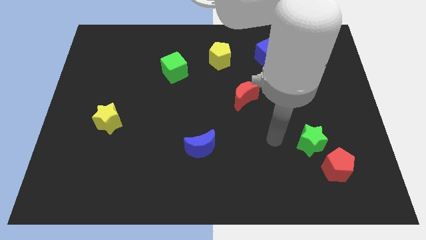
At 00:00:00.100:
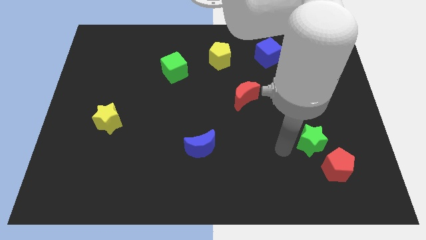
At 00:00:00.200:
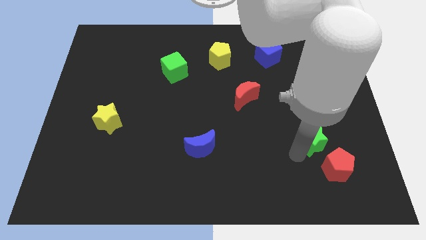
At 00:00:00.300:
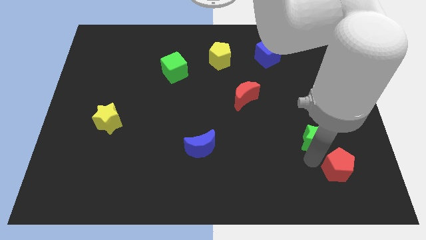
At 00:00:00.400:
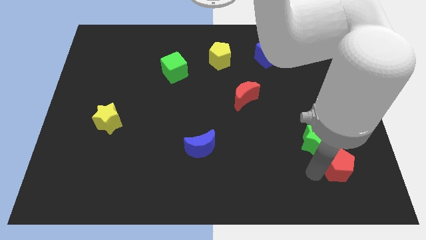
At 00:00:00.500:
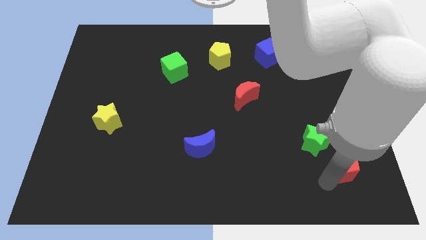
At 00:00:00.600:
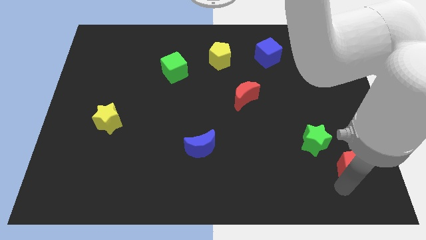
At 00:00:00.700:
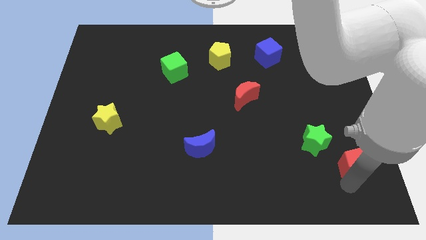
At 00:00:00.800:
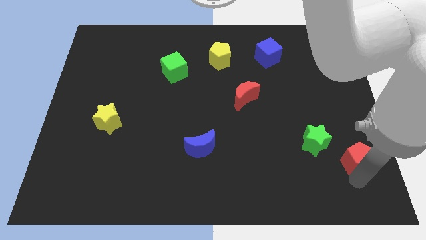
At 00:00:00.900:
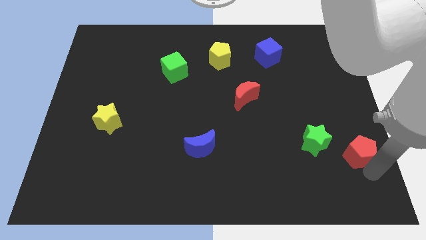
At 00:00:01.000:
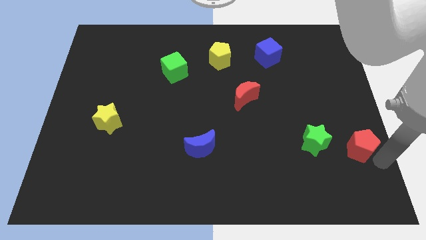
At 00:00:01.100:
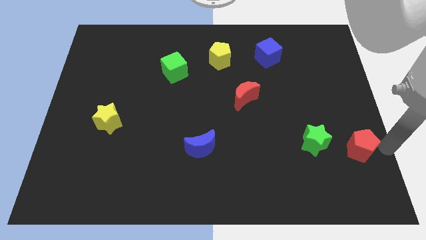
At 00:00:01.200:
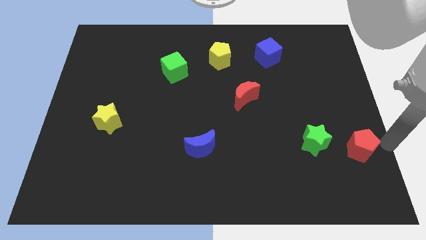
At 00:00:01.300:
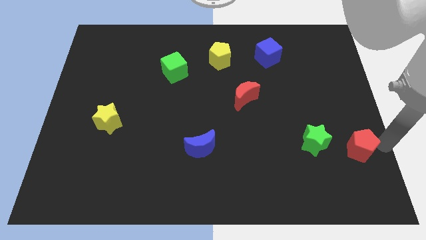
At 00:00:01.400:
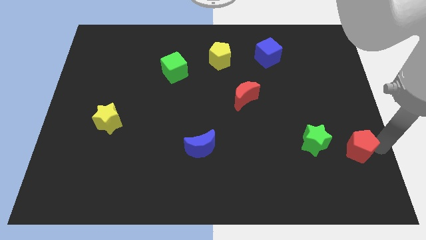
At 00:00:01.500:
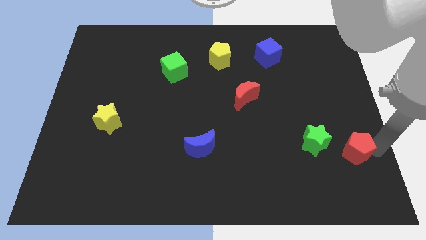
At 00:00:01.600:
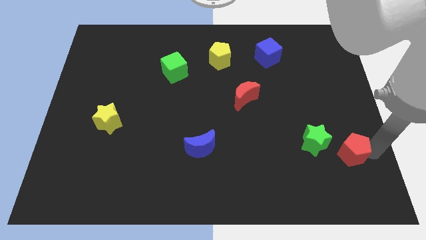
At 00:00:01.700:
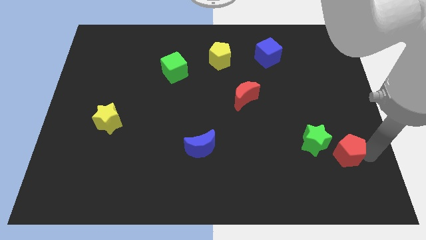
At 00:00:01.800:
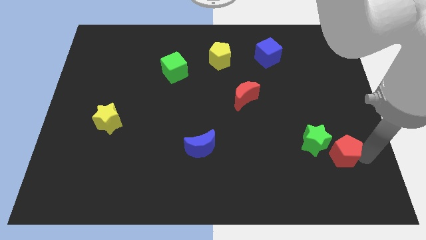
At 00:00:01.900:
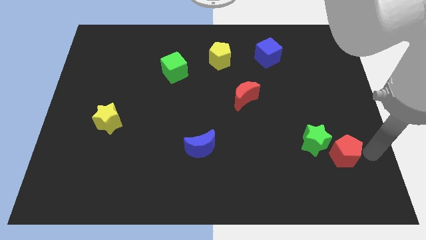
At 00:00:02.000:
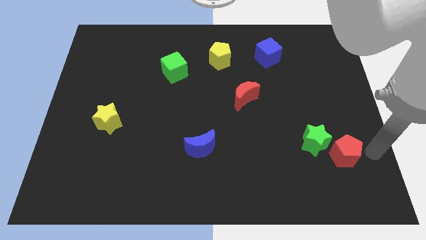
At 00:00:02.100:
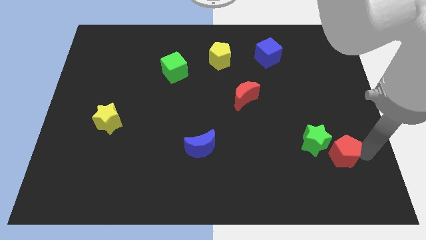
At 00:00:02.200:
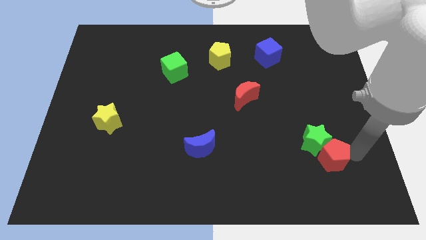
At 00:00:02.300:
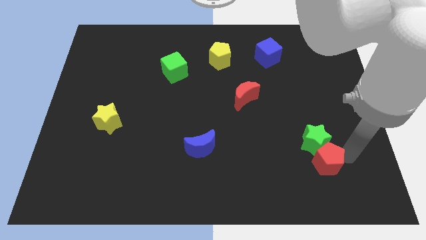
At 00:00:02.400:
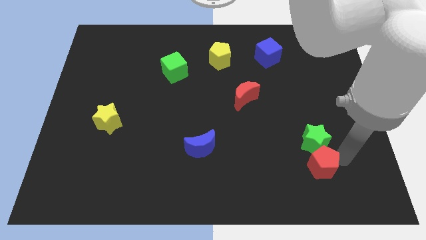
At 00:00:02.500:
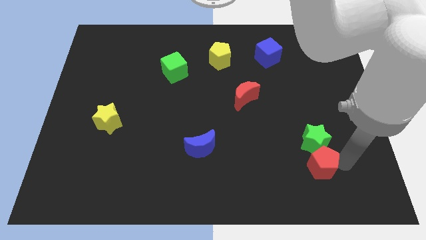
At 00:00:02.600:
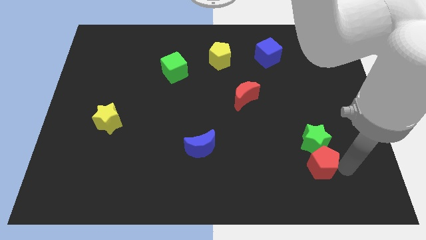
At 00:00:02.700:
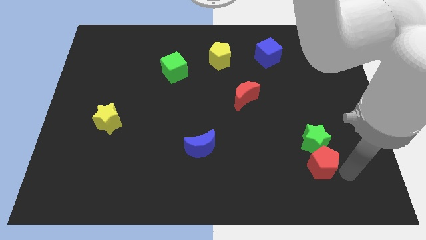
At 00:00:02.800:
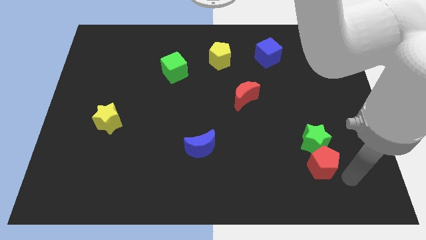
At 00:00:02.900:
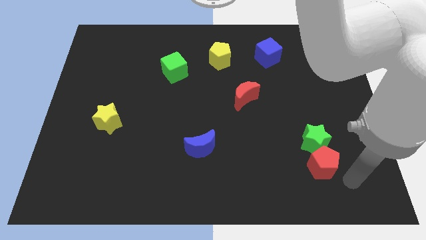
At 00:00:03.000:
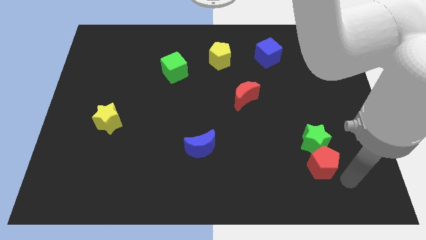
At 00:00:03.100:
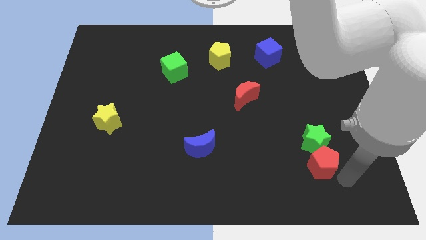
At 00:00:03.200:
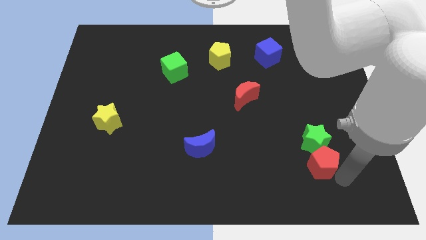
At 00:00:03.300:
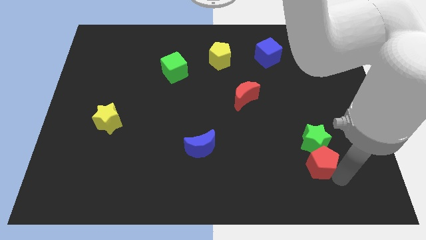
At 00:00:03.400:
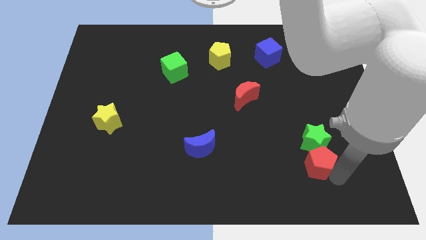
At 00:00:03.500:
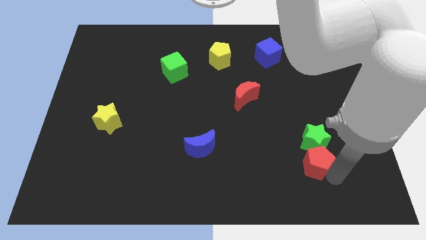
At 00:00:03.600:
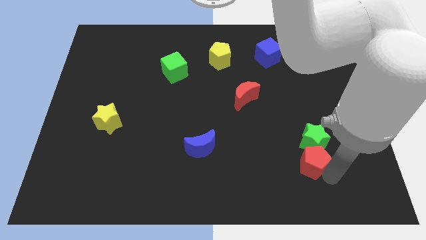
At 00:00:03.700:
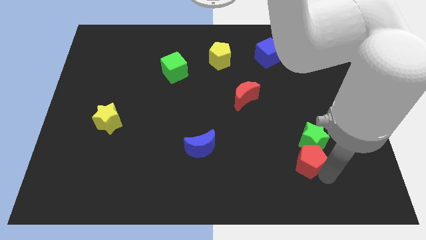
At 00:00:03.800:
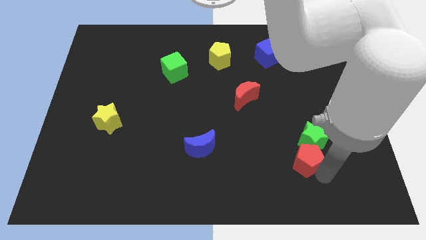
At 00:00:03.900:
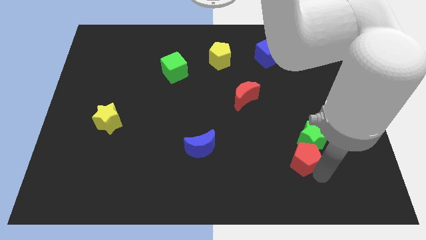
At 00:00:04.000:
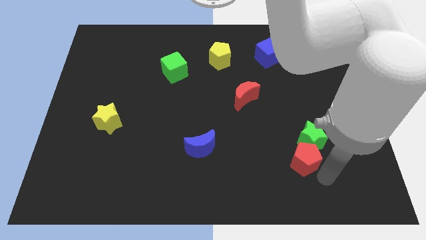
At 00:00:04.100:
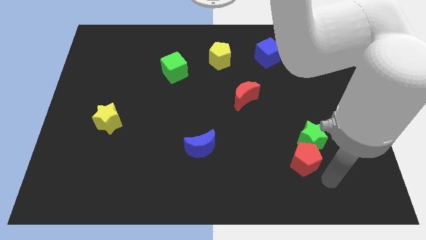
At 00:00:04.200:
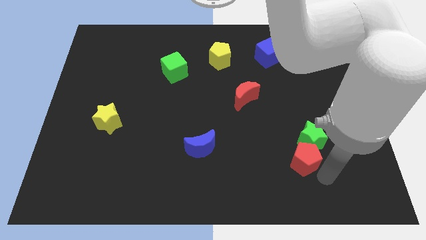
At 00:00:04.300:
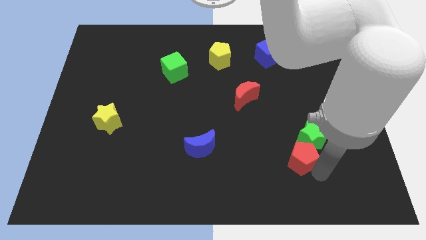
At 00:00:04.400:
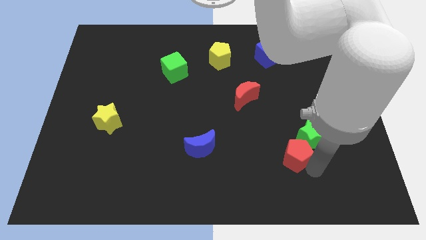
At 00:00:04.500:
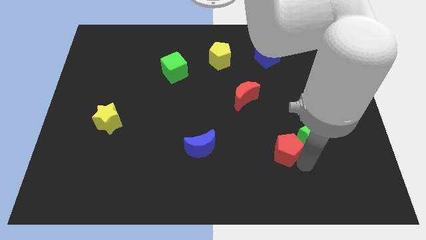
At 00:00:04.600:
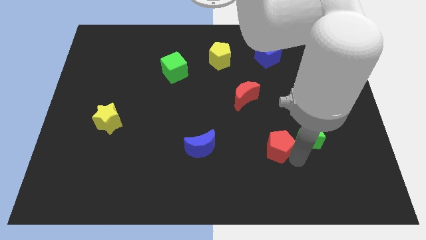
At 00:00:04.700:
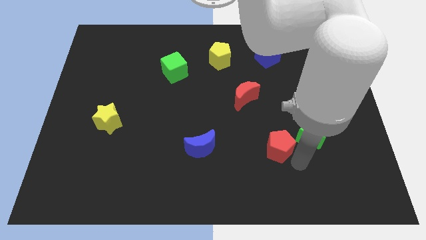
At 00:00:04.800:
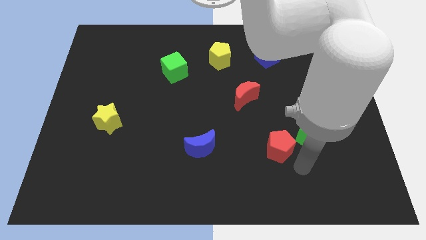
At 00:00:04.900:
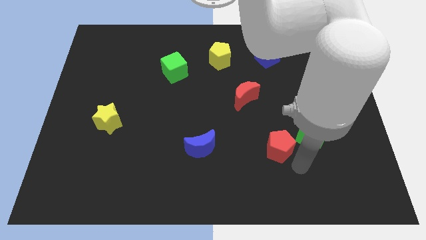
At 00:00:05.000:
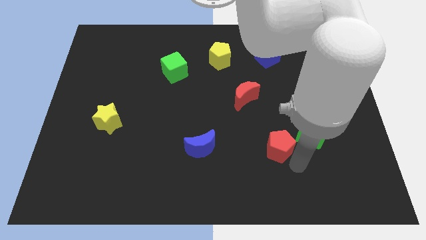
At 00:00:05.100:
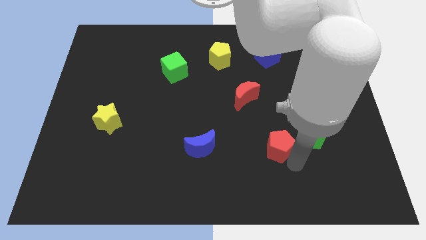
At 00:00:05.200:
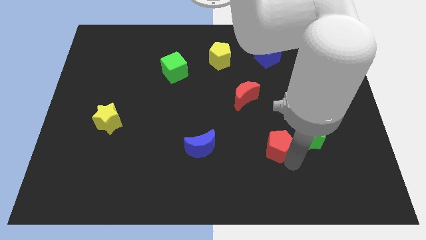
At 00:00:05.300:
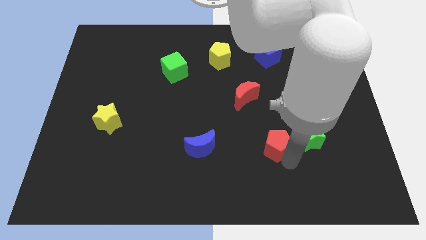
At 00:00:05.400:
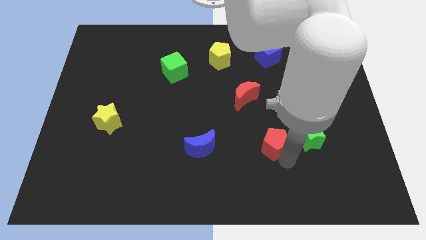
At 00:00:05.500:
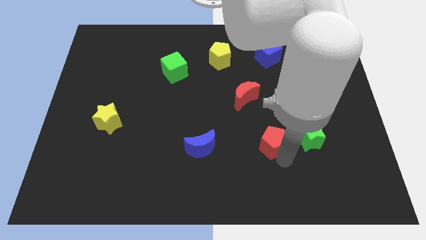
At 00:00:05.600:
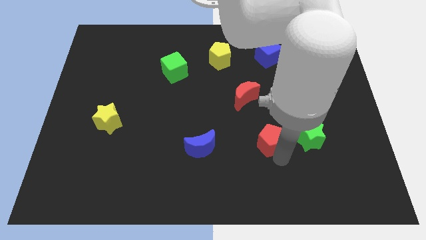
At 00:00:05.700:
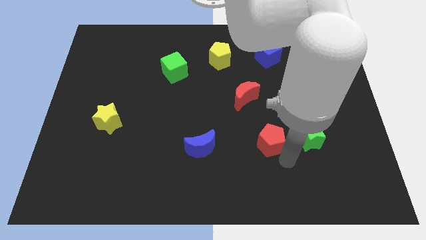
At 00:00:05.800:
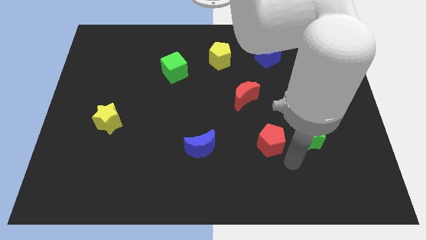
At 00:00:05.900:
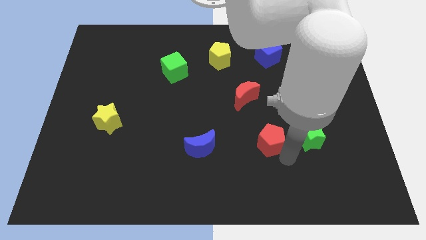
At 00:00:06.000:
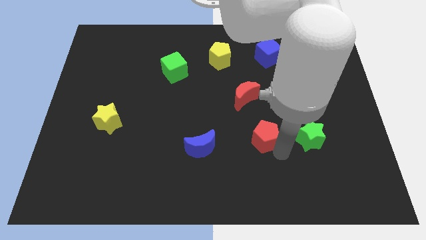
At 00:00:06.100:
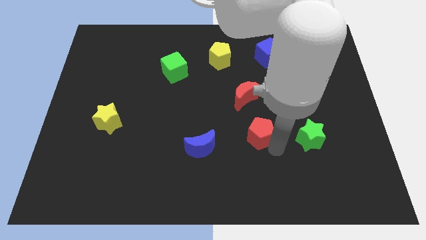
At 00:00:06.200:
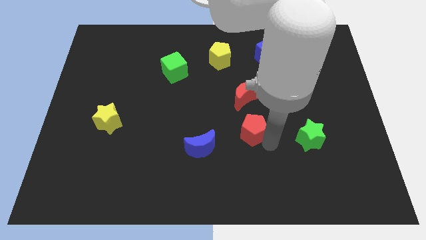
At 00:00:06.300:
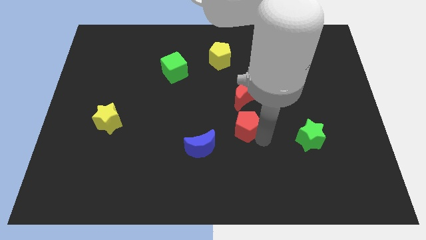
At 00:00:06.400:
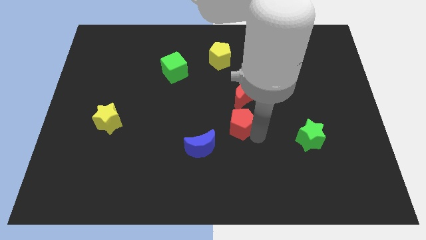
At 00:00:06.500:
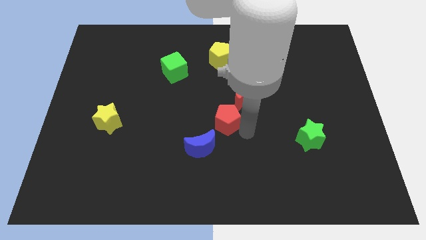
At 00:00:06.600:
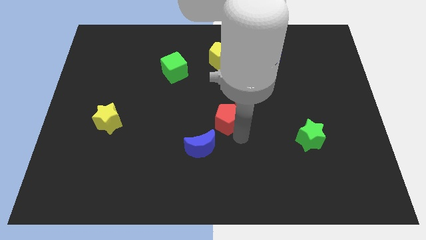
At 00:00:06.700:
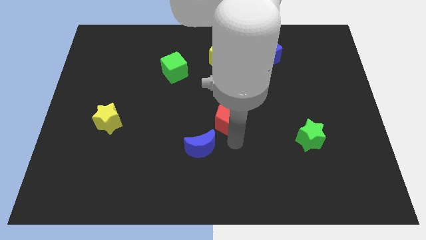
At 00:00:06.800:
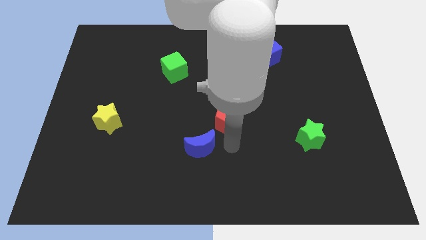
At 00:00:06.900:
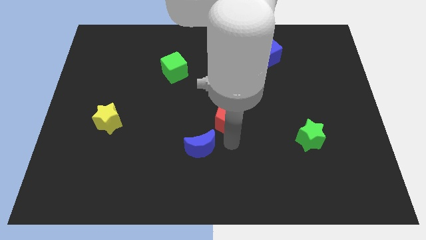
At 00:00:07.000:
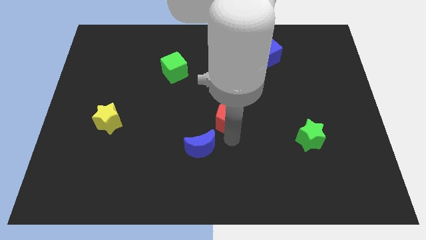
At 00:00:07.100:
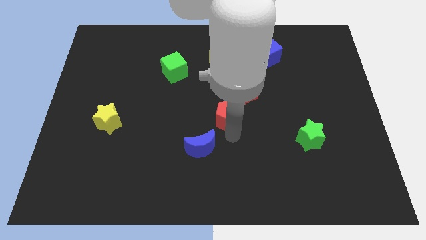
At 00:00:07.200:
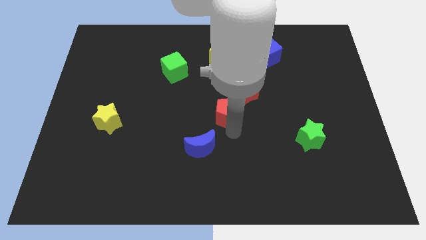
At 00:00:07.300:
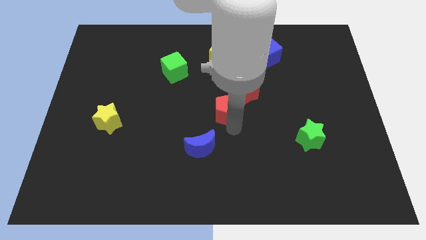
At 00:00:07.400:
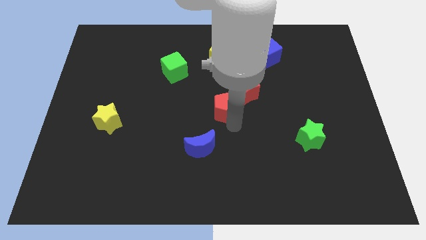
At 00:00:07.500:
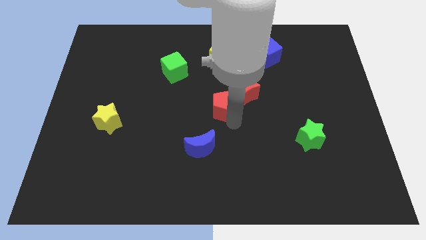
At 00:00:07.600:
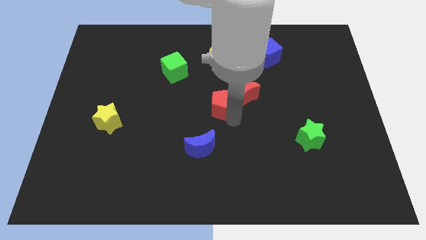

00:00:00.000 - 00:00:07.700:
push the red pentagon to the bottom of the yellow pentagon
